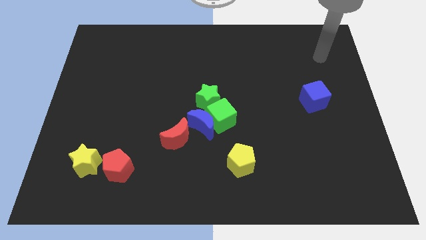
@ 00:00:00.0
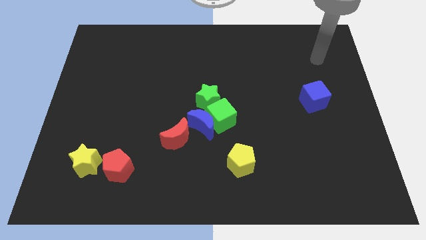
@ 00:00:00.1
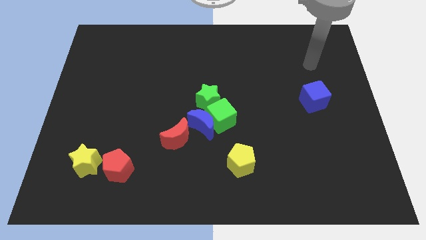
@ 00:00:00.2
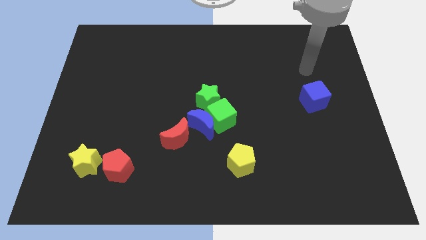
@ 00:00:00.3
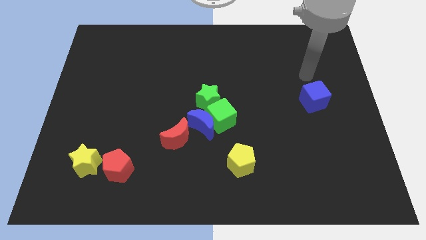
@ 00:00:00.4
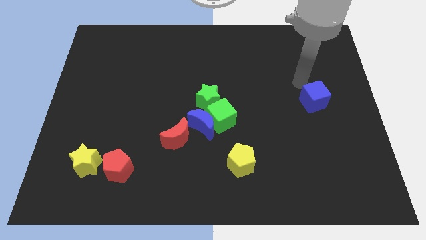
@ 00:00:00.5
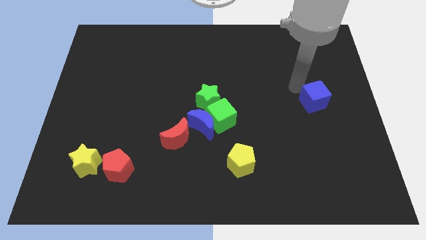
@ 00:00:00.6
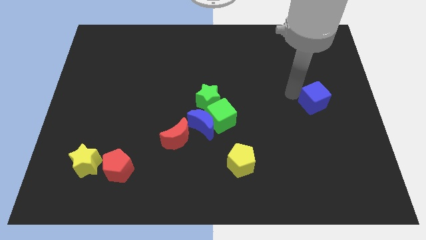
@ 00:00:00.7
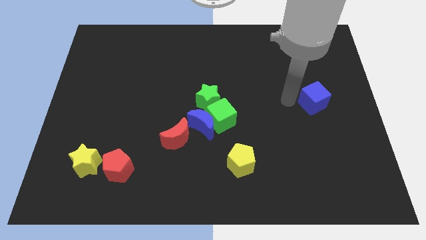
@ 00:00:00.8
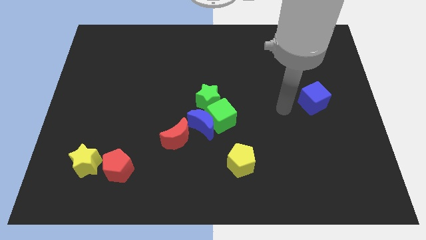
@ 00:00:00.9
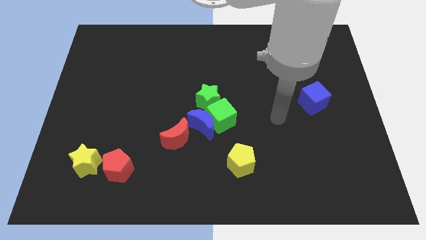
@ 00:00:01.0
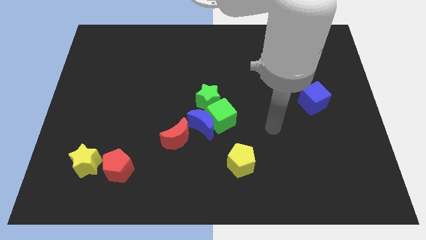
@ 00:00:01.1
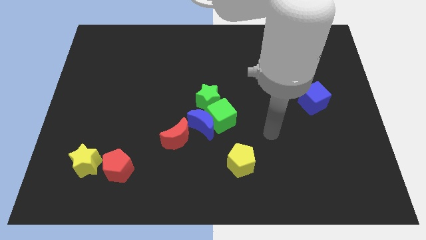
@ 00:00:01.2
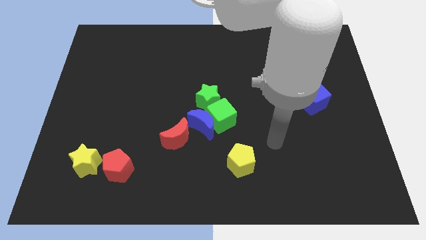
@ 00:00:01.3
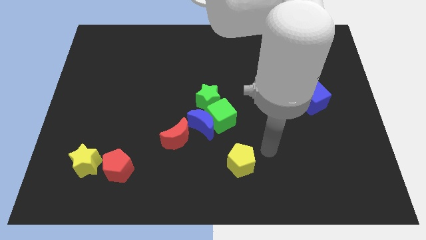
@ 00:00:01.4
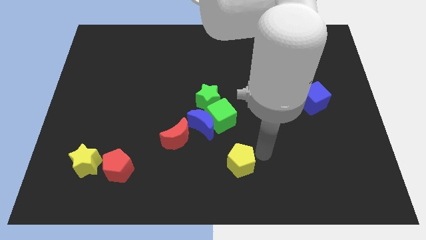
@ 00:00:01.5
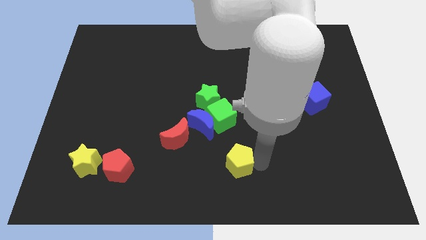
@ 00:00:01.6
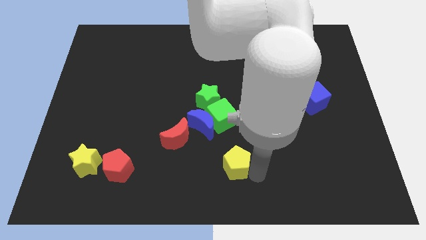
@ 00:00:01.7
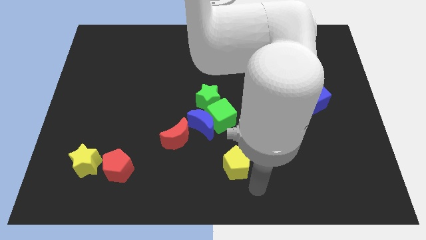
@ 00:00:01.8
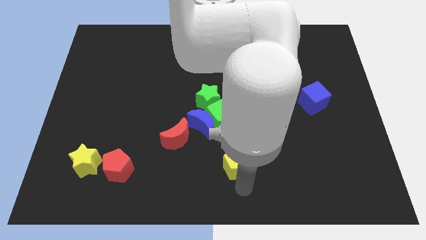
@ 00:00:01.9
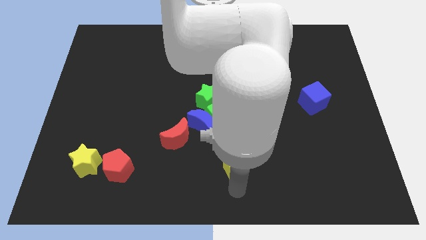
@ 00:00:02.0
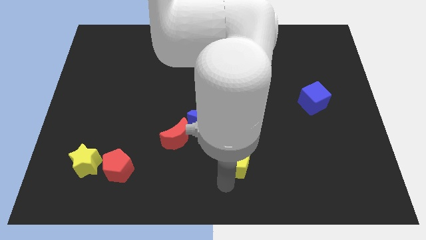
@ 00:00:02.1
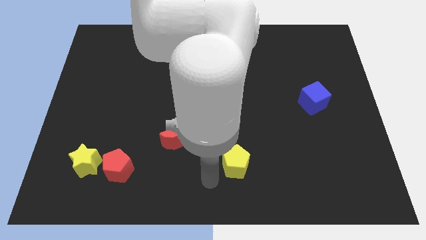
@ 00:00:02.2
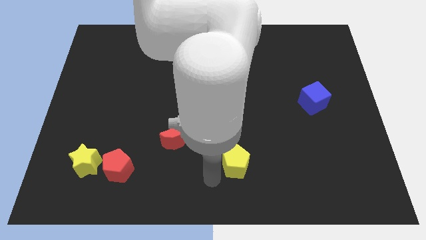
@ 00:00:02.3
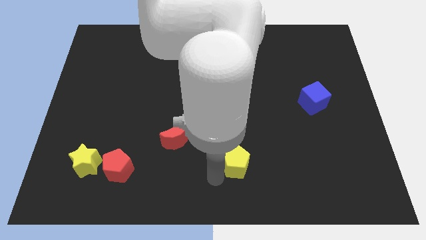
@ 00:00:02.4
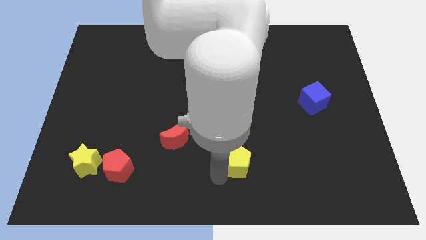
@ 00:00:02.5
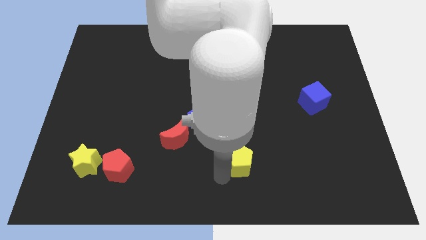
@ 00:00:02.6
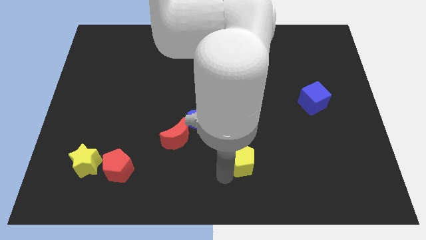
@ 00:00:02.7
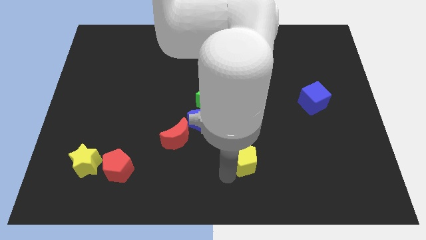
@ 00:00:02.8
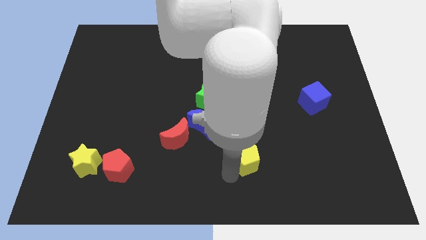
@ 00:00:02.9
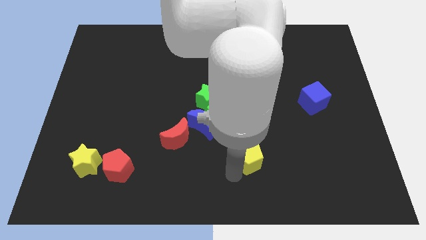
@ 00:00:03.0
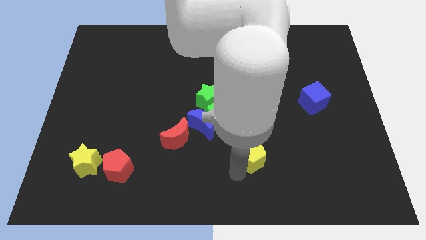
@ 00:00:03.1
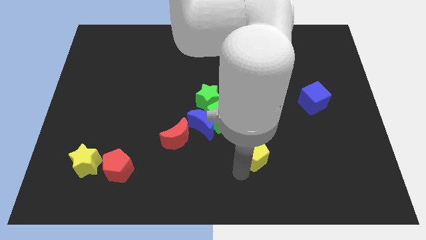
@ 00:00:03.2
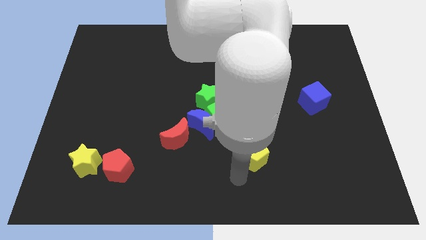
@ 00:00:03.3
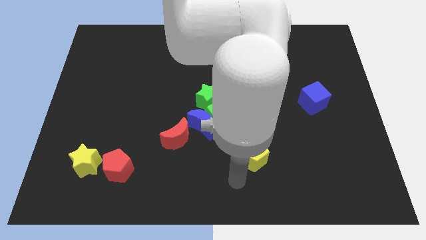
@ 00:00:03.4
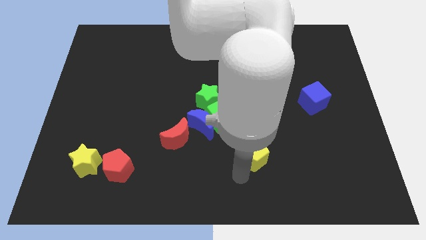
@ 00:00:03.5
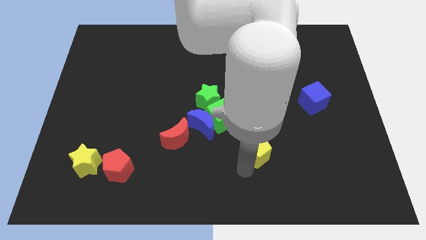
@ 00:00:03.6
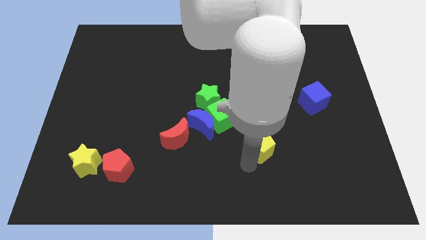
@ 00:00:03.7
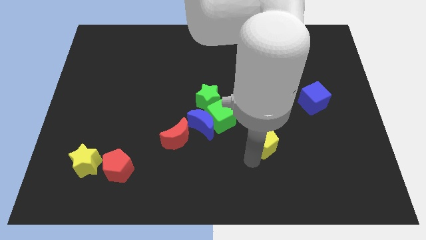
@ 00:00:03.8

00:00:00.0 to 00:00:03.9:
slide the yellow pentagon up and then right a bit

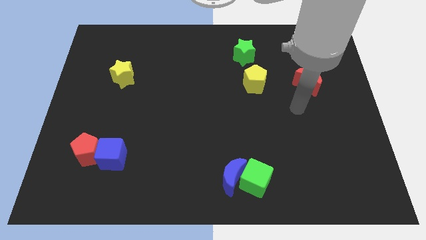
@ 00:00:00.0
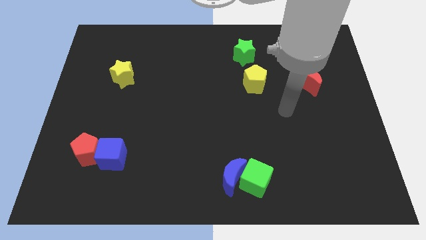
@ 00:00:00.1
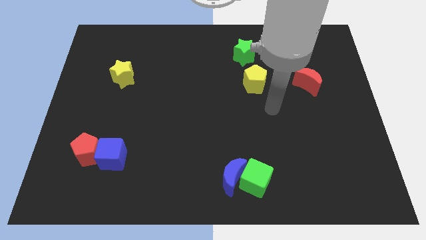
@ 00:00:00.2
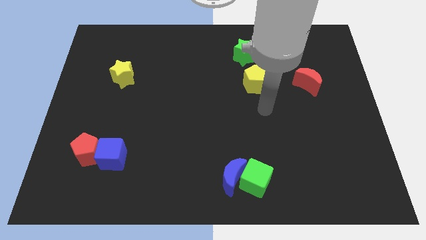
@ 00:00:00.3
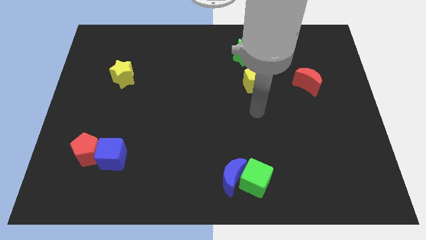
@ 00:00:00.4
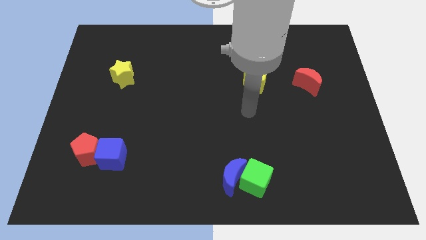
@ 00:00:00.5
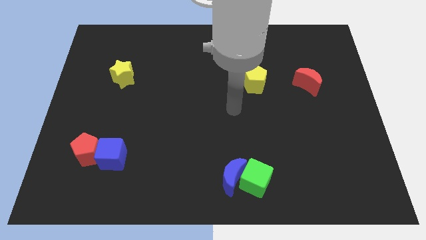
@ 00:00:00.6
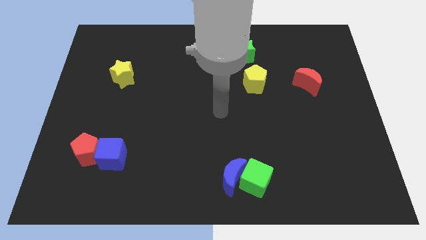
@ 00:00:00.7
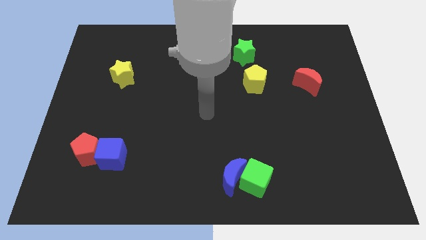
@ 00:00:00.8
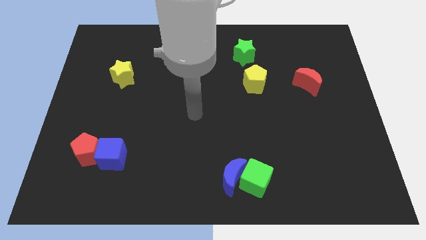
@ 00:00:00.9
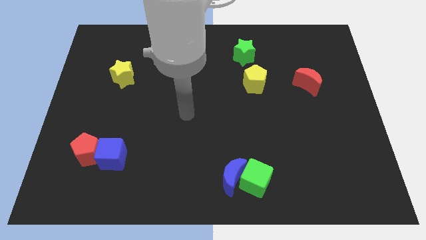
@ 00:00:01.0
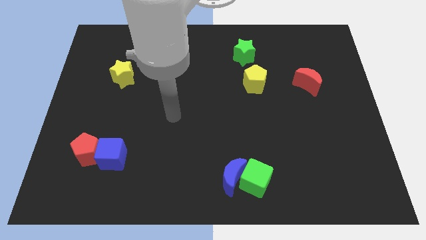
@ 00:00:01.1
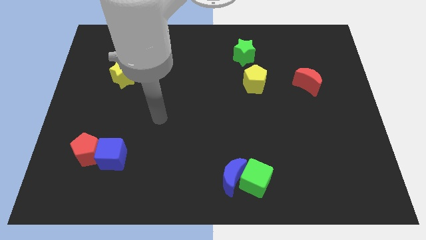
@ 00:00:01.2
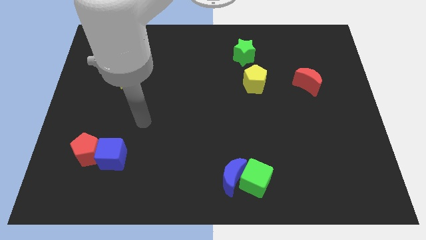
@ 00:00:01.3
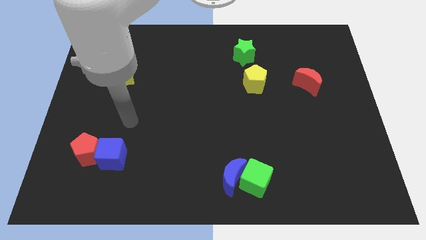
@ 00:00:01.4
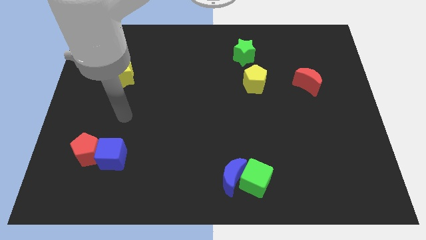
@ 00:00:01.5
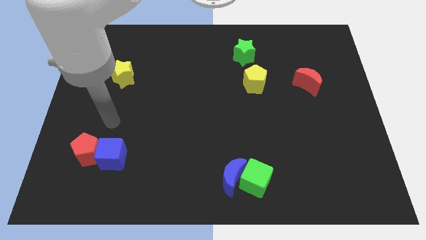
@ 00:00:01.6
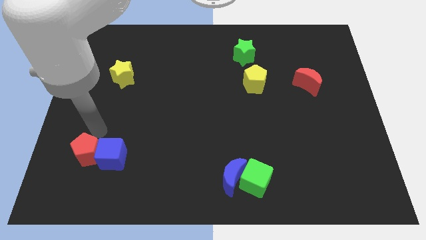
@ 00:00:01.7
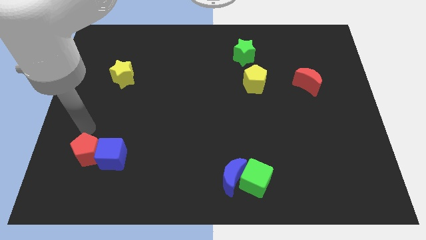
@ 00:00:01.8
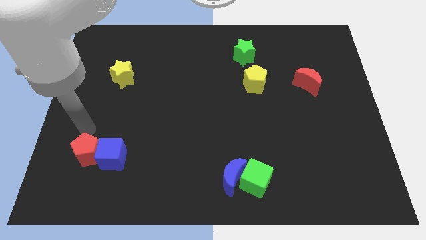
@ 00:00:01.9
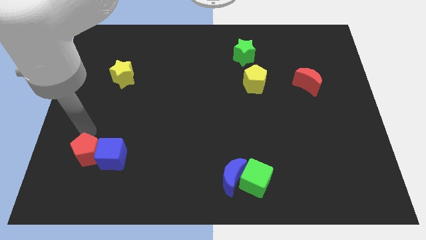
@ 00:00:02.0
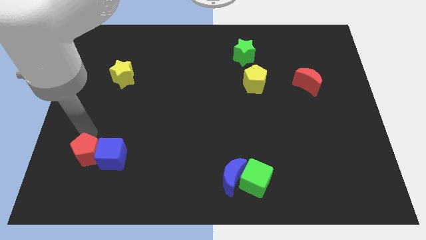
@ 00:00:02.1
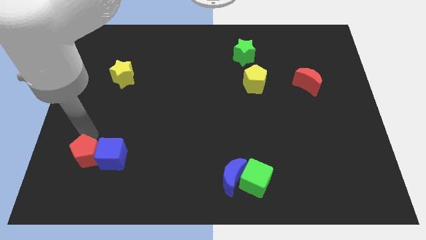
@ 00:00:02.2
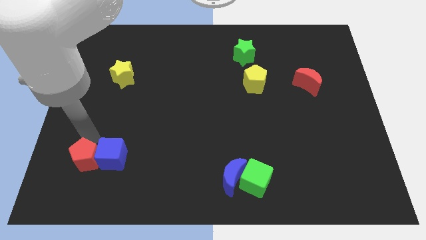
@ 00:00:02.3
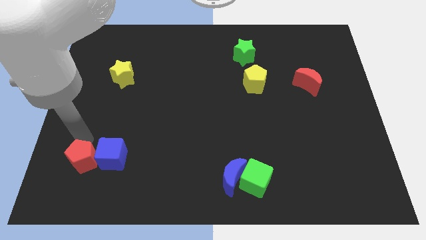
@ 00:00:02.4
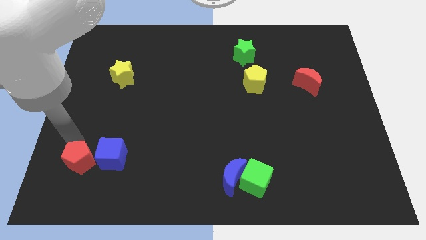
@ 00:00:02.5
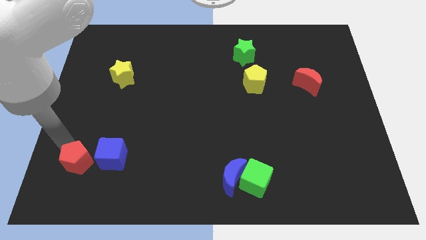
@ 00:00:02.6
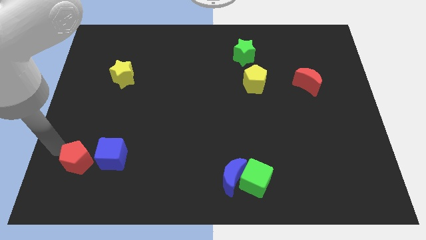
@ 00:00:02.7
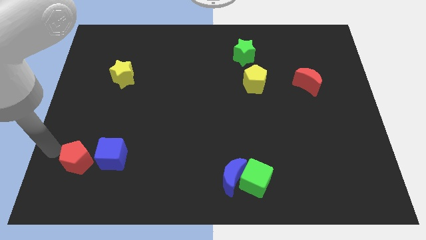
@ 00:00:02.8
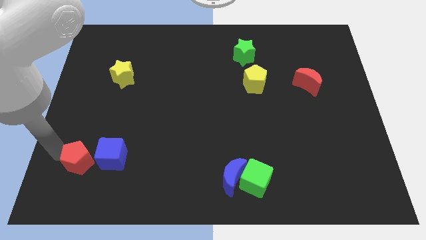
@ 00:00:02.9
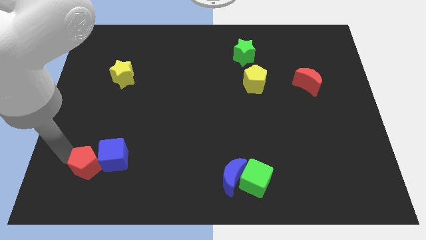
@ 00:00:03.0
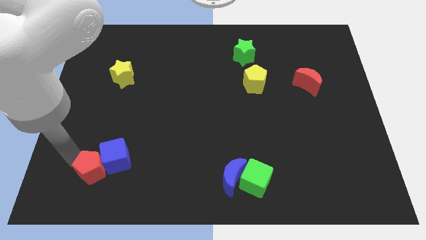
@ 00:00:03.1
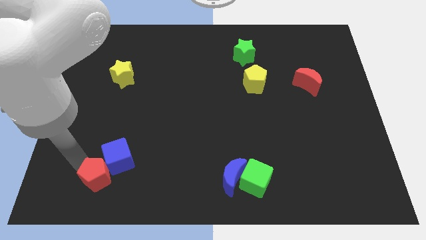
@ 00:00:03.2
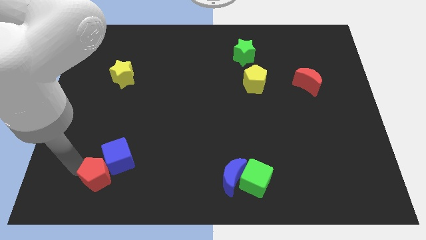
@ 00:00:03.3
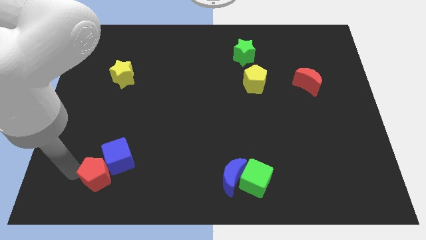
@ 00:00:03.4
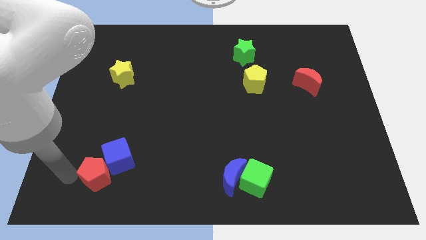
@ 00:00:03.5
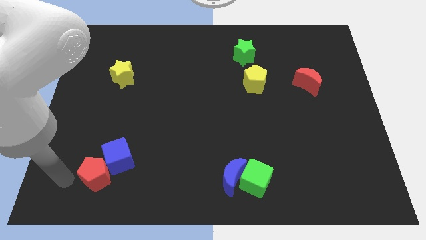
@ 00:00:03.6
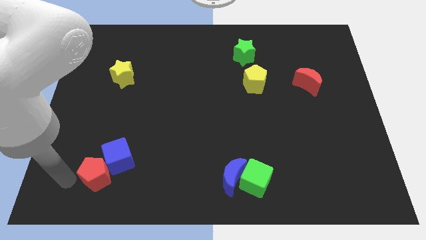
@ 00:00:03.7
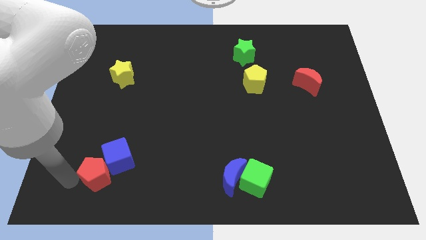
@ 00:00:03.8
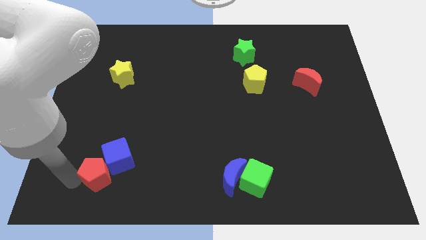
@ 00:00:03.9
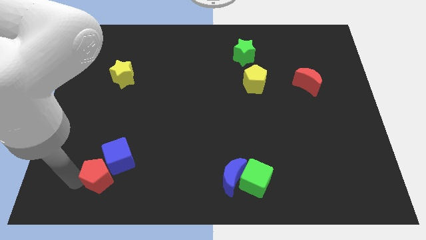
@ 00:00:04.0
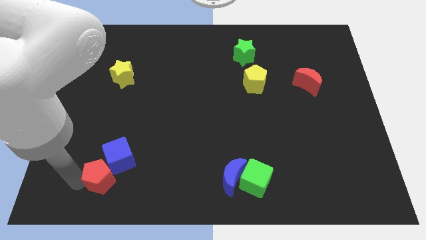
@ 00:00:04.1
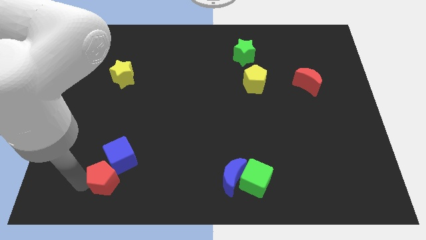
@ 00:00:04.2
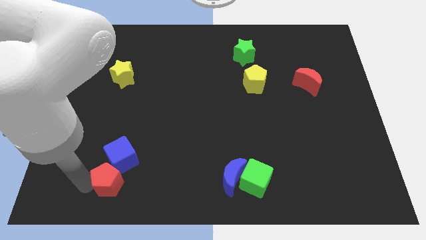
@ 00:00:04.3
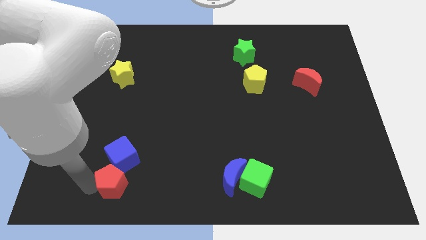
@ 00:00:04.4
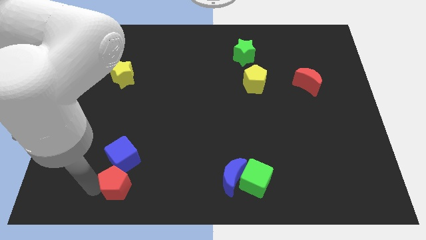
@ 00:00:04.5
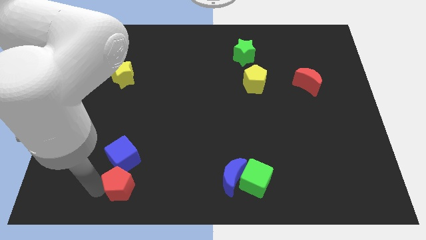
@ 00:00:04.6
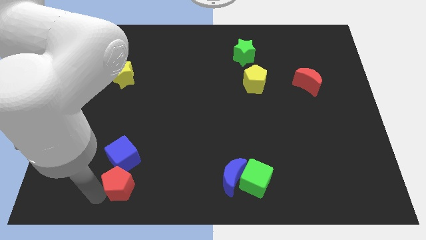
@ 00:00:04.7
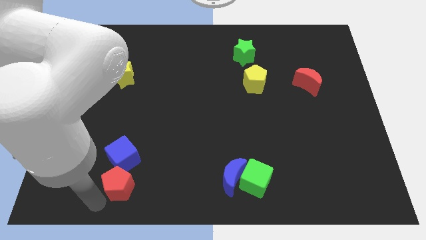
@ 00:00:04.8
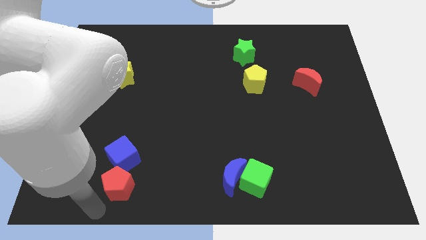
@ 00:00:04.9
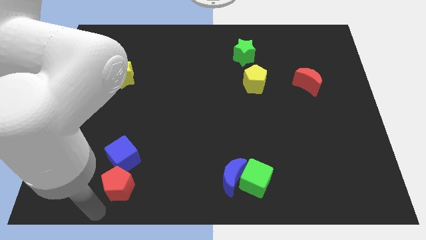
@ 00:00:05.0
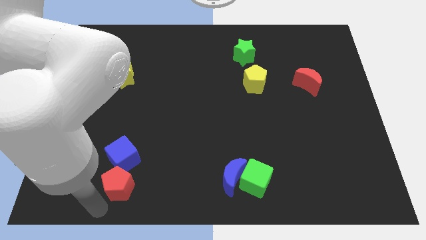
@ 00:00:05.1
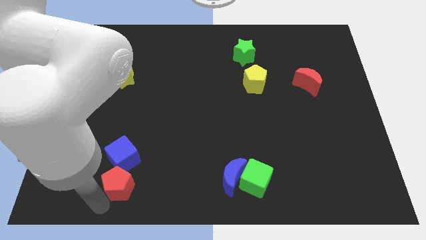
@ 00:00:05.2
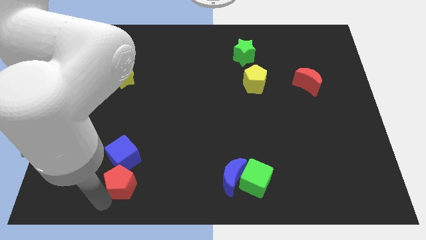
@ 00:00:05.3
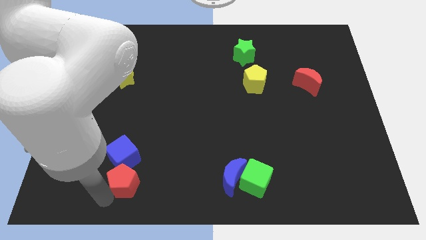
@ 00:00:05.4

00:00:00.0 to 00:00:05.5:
move the red pentagon slightly right
